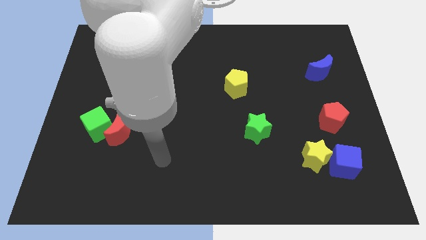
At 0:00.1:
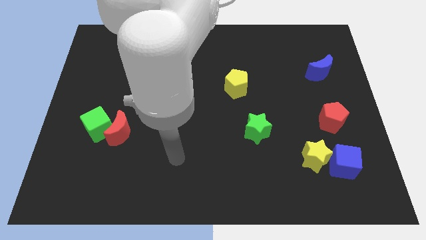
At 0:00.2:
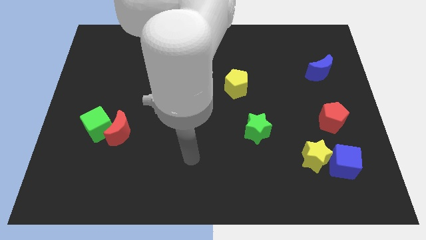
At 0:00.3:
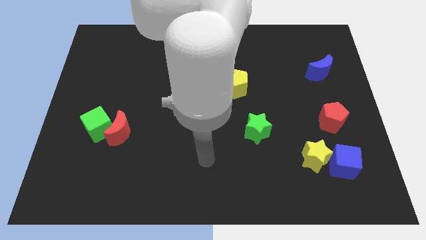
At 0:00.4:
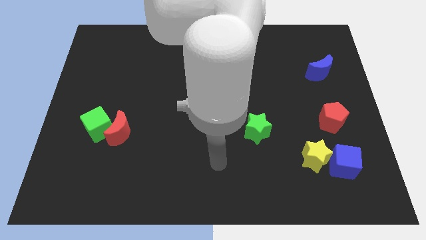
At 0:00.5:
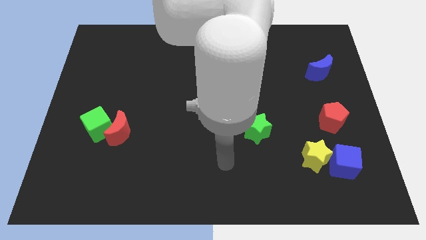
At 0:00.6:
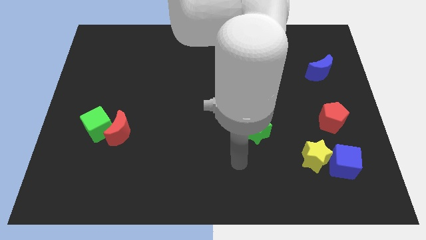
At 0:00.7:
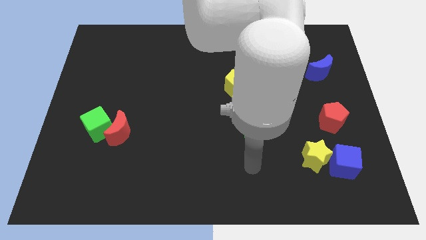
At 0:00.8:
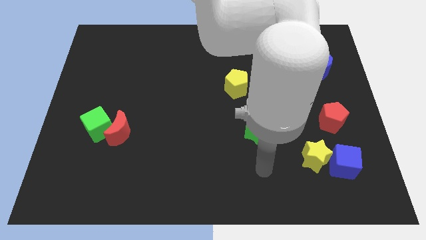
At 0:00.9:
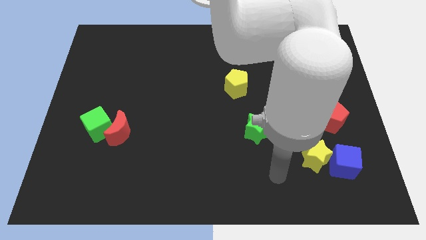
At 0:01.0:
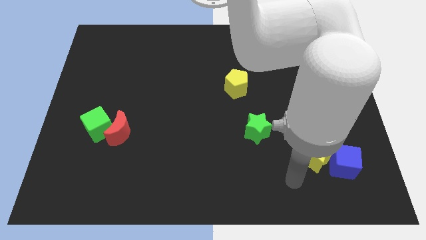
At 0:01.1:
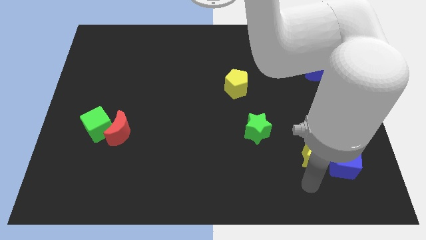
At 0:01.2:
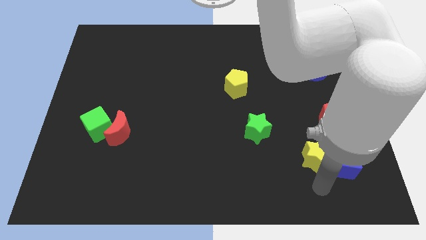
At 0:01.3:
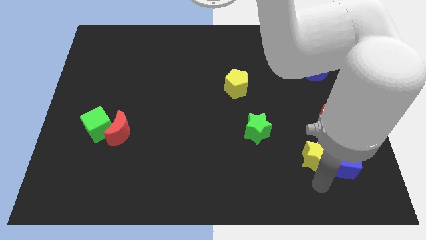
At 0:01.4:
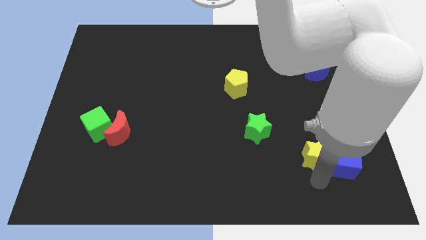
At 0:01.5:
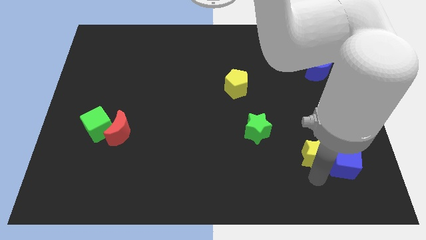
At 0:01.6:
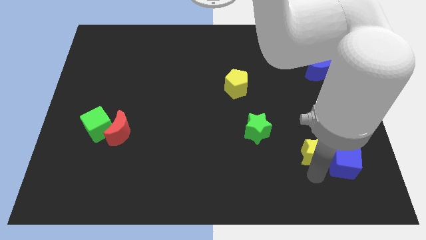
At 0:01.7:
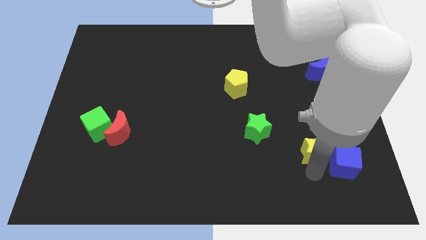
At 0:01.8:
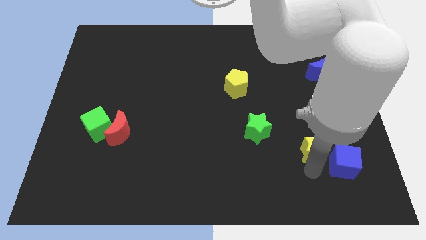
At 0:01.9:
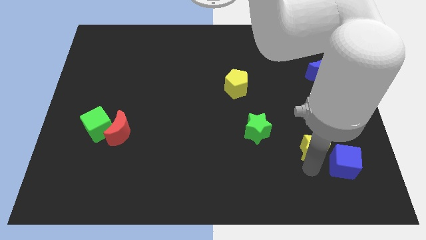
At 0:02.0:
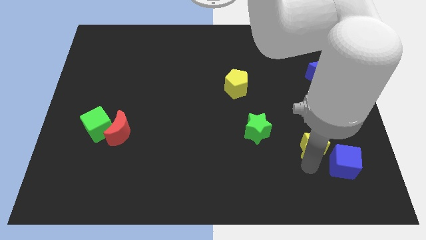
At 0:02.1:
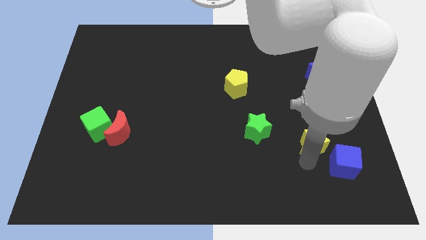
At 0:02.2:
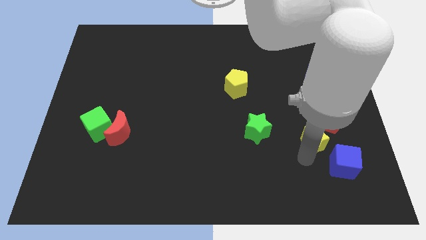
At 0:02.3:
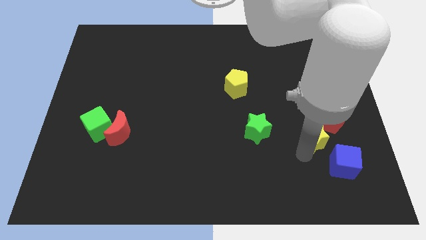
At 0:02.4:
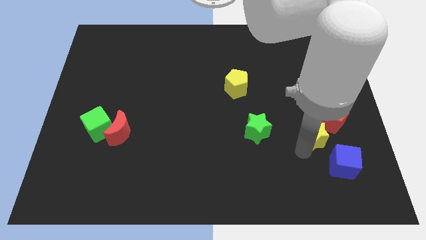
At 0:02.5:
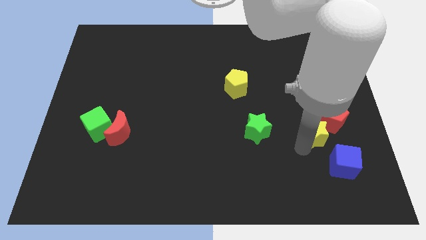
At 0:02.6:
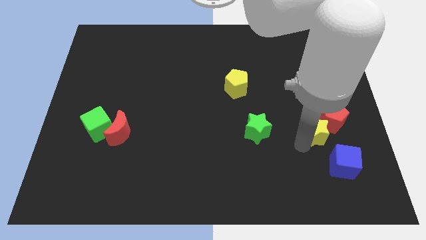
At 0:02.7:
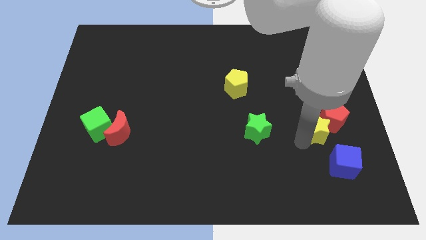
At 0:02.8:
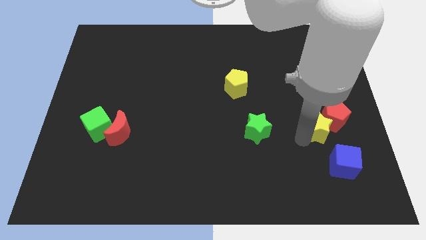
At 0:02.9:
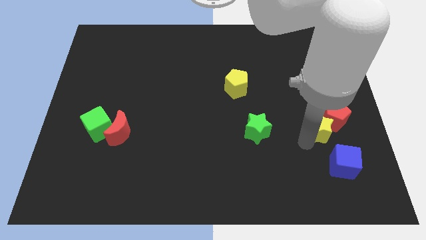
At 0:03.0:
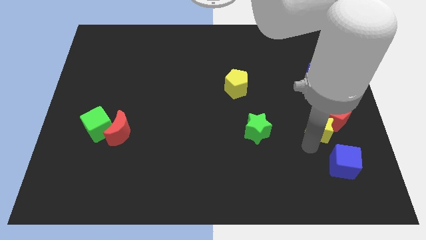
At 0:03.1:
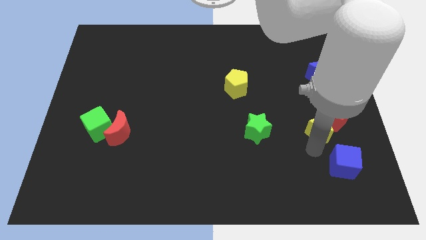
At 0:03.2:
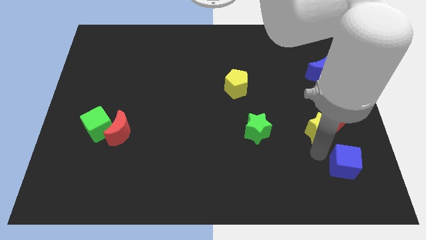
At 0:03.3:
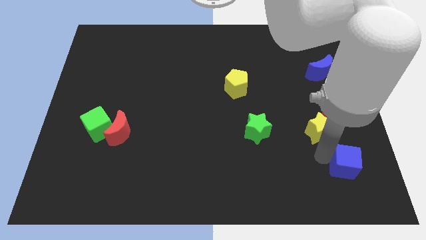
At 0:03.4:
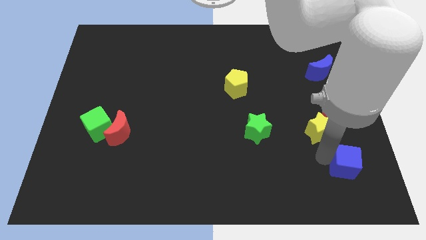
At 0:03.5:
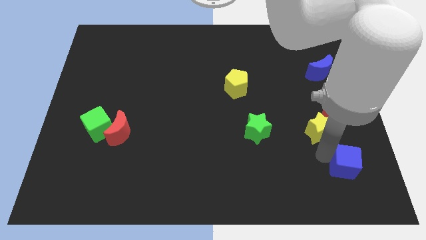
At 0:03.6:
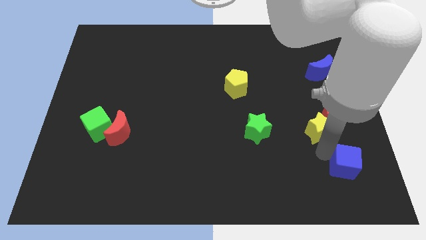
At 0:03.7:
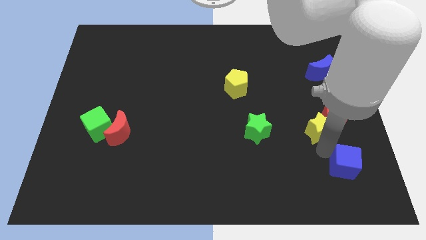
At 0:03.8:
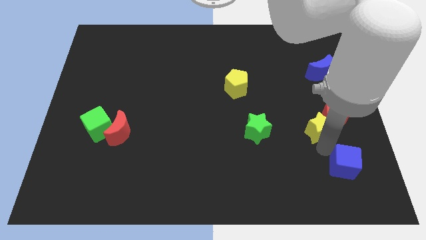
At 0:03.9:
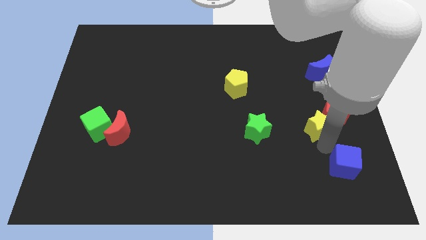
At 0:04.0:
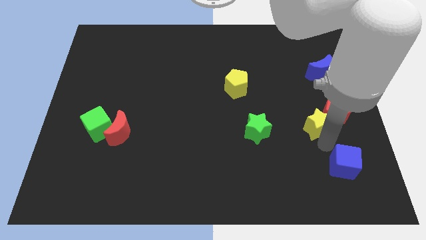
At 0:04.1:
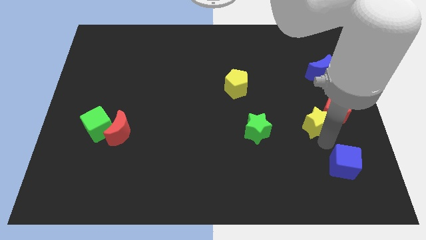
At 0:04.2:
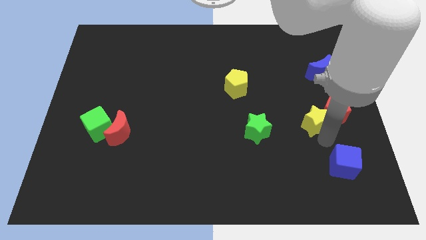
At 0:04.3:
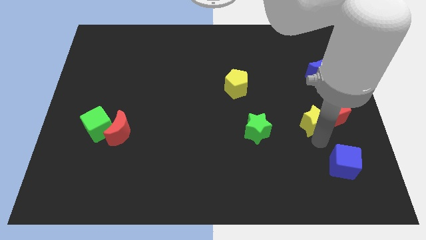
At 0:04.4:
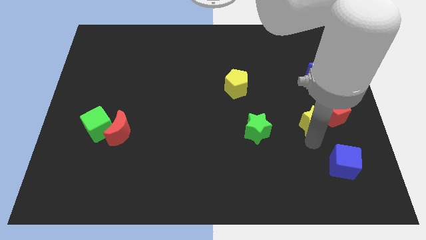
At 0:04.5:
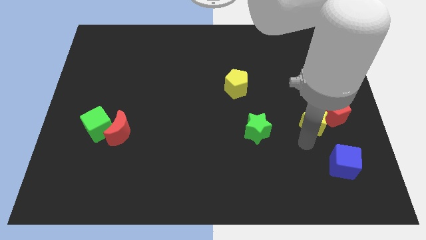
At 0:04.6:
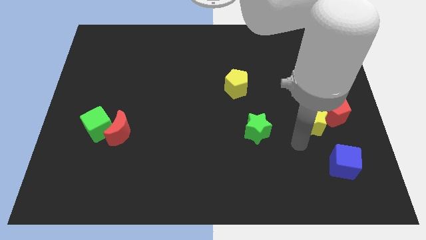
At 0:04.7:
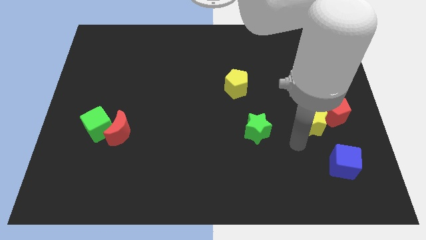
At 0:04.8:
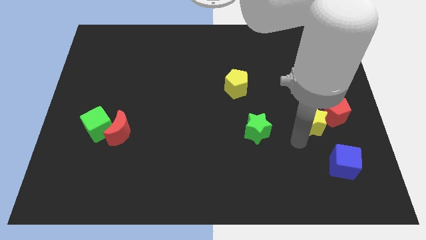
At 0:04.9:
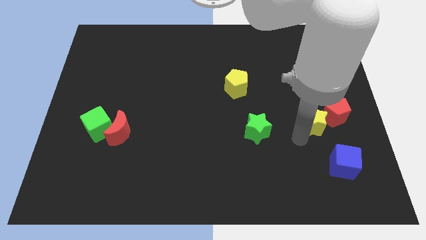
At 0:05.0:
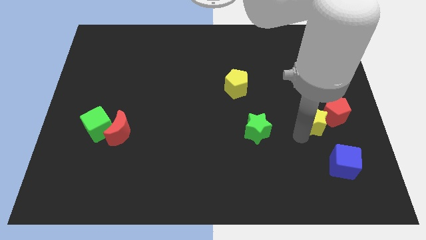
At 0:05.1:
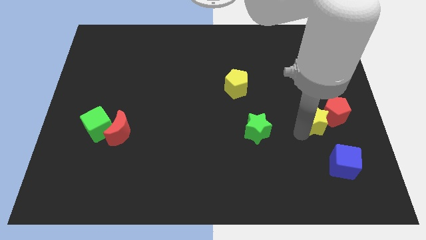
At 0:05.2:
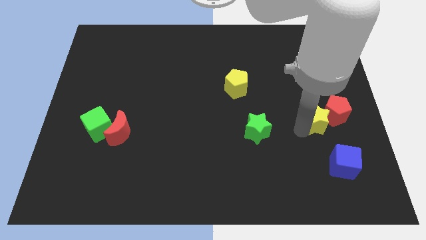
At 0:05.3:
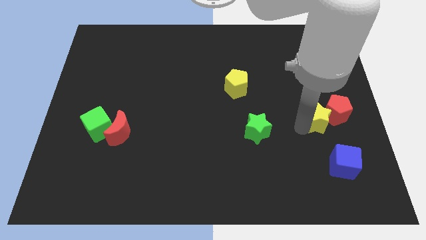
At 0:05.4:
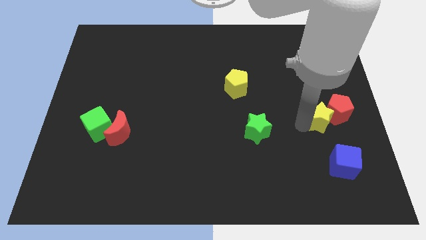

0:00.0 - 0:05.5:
slide the yellow star to the bottom side of the blue moon

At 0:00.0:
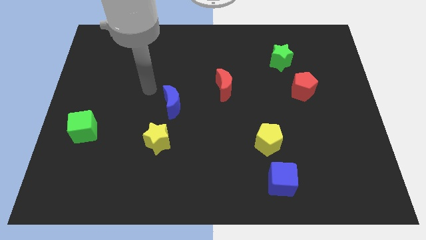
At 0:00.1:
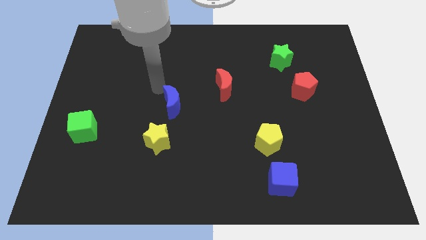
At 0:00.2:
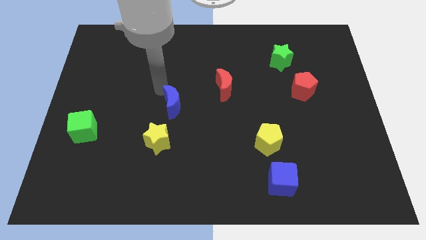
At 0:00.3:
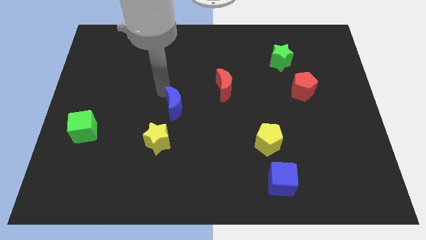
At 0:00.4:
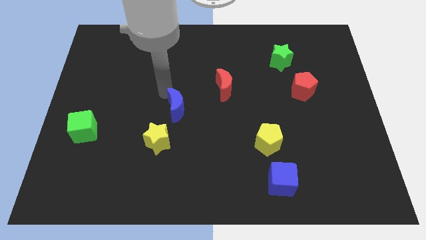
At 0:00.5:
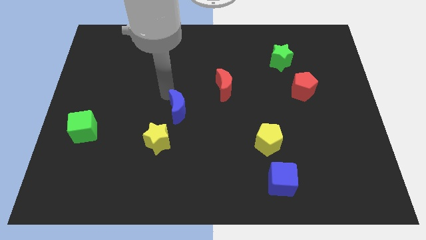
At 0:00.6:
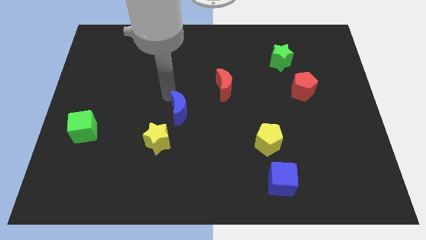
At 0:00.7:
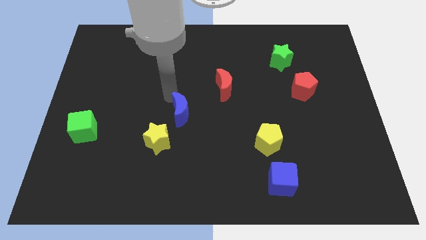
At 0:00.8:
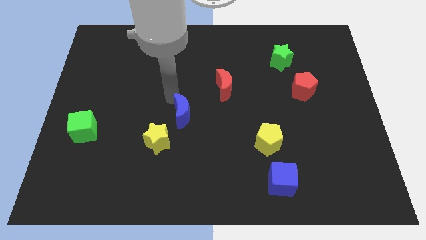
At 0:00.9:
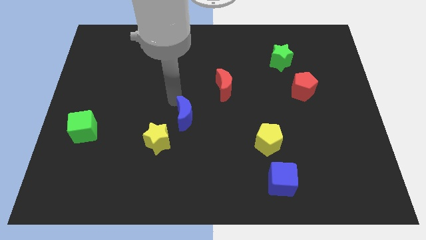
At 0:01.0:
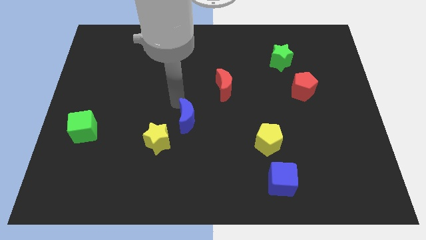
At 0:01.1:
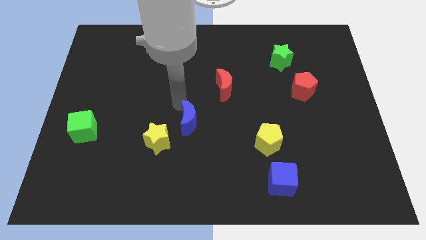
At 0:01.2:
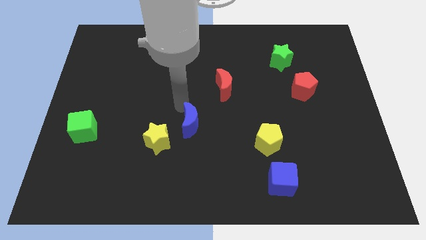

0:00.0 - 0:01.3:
move the blue moon right of the yellow star

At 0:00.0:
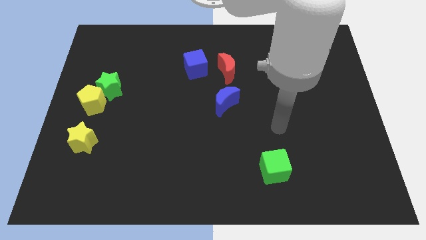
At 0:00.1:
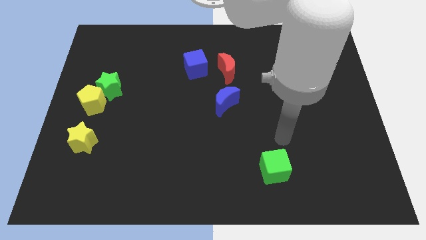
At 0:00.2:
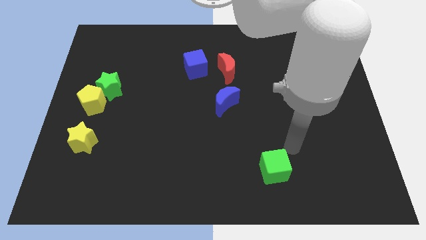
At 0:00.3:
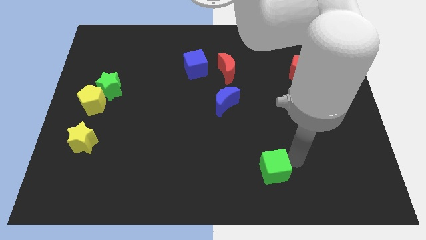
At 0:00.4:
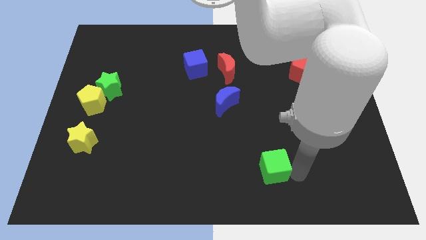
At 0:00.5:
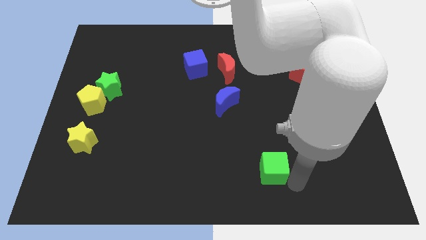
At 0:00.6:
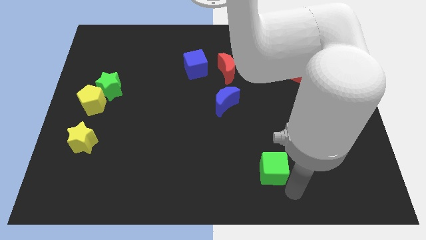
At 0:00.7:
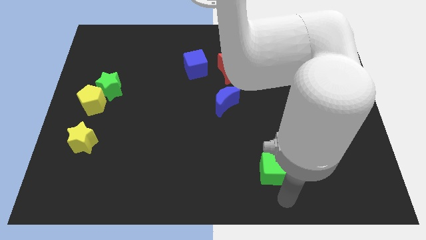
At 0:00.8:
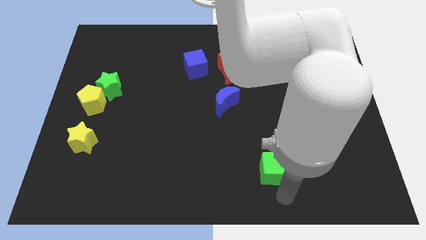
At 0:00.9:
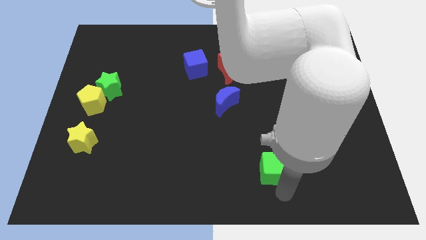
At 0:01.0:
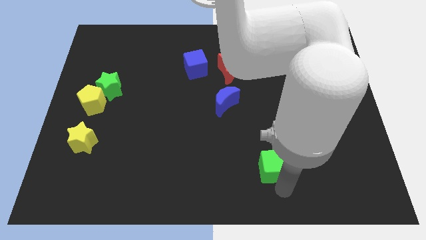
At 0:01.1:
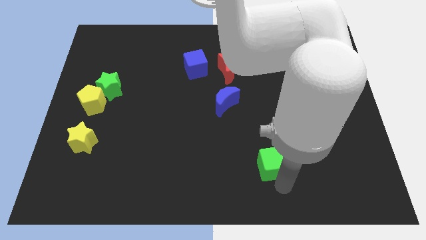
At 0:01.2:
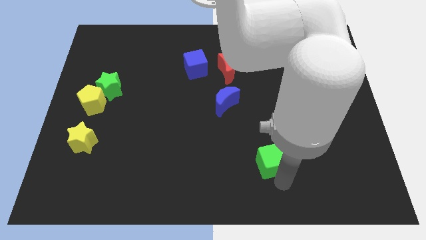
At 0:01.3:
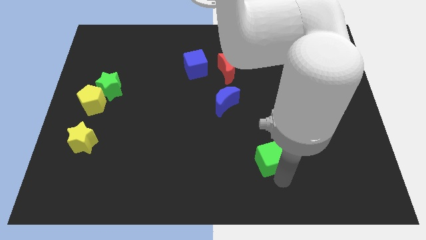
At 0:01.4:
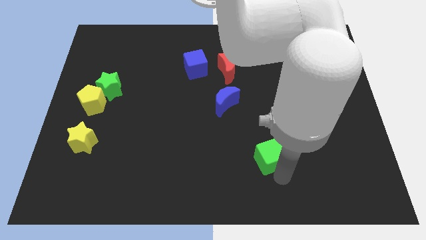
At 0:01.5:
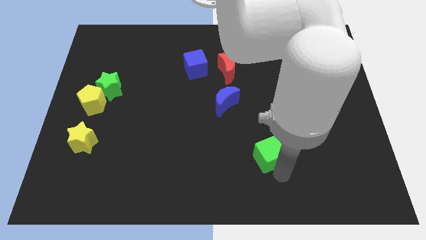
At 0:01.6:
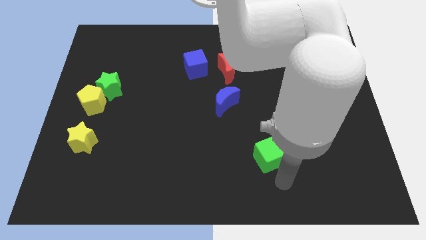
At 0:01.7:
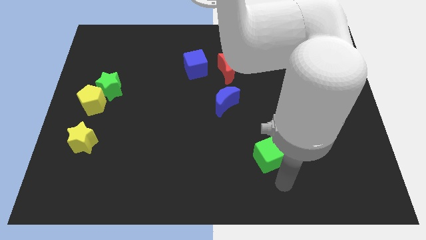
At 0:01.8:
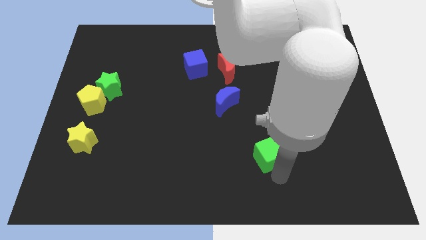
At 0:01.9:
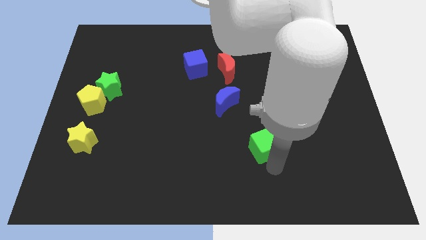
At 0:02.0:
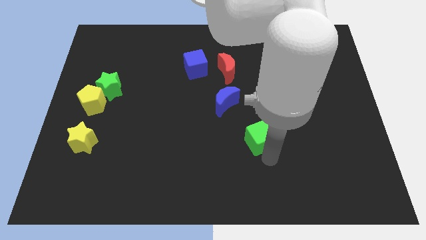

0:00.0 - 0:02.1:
slide the green cube to the bottom right side of the blue moon
